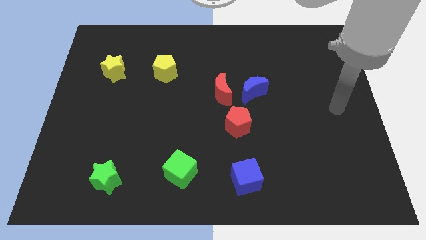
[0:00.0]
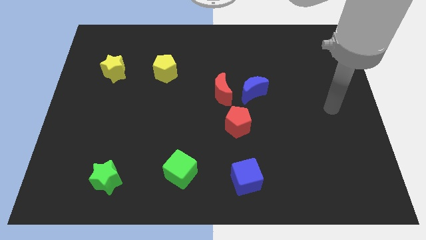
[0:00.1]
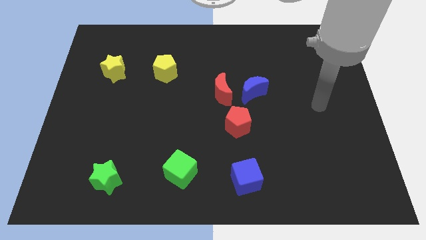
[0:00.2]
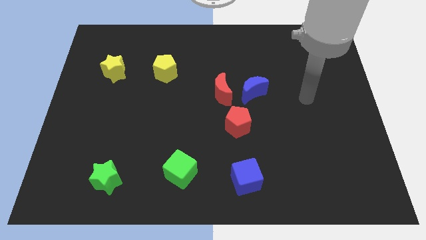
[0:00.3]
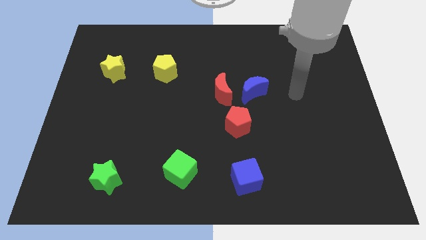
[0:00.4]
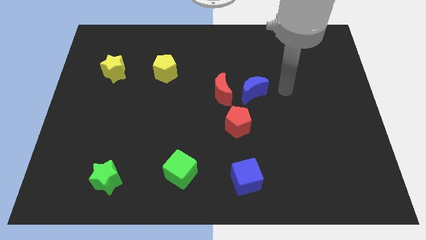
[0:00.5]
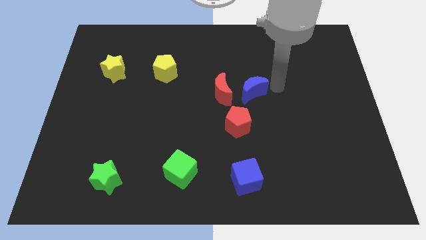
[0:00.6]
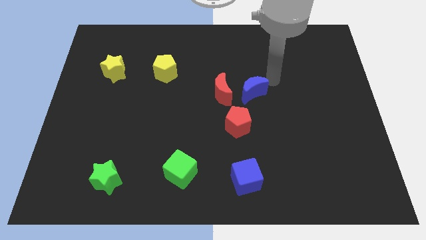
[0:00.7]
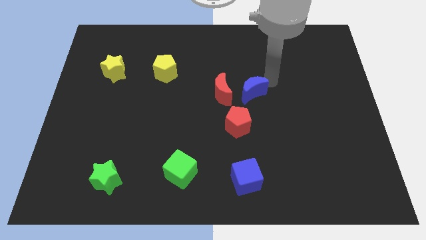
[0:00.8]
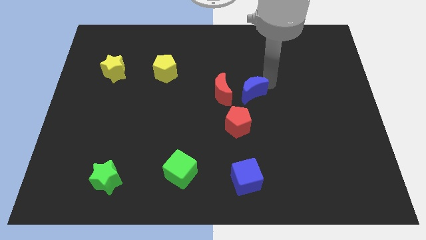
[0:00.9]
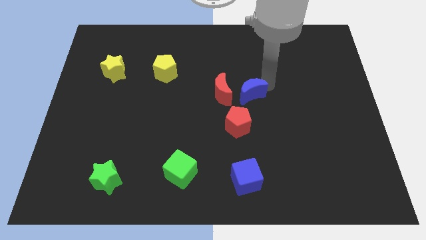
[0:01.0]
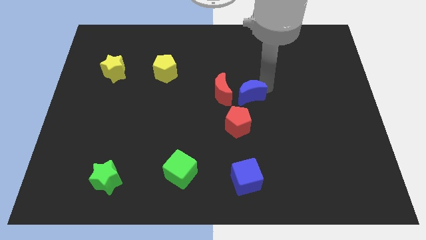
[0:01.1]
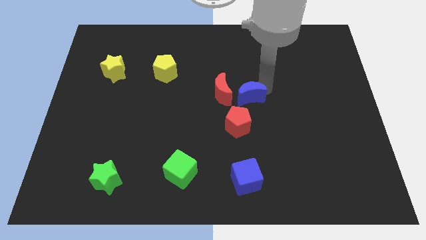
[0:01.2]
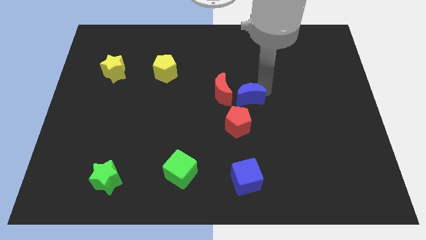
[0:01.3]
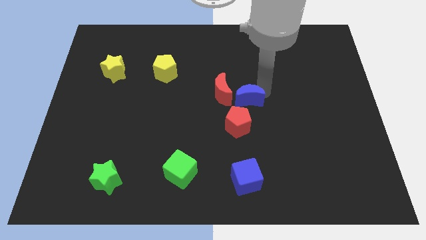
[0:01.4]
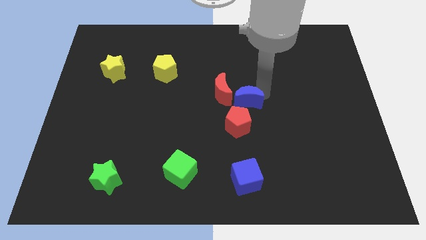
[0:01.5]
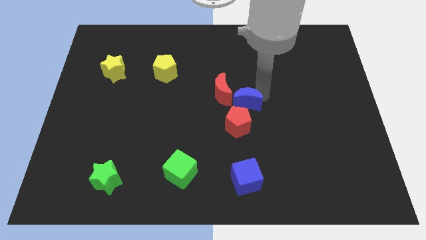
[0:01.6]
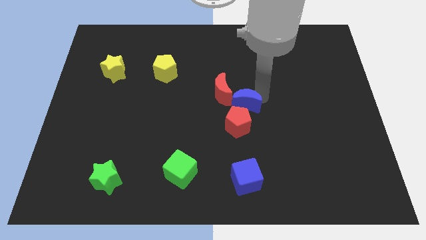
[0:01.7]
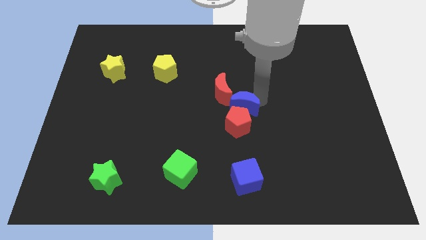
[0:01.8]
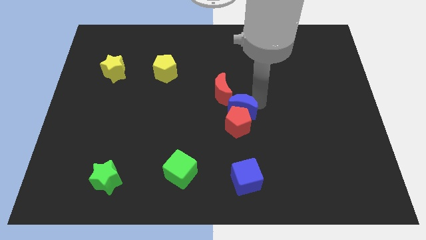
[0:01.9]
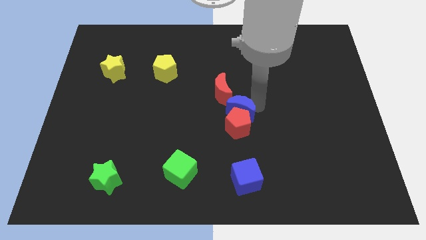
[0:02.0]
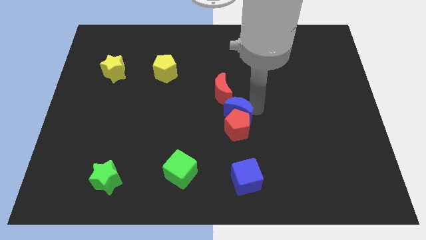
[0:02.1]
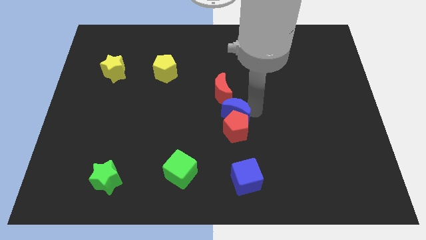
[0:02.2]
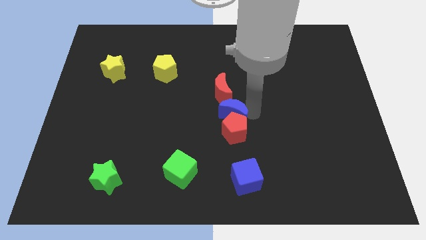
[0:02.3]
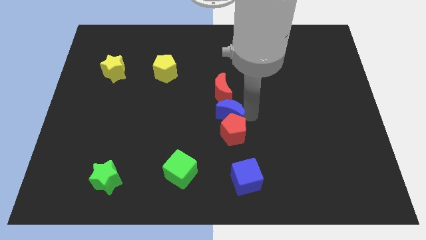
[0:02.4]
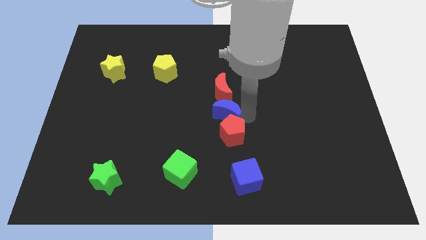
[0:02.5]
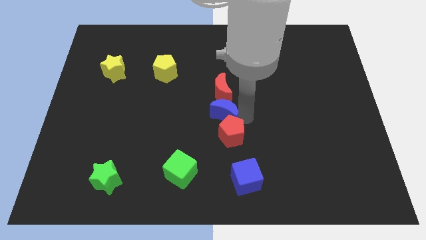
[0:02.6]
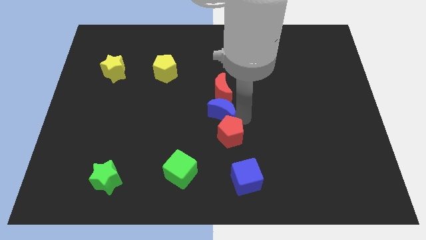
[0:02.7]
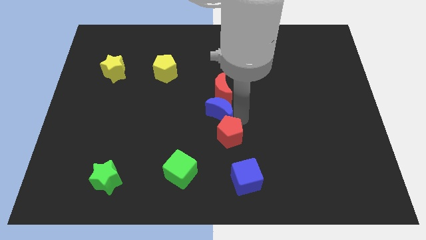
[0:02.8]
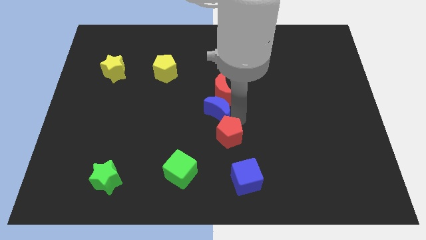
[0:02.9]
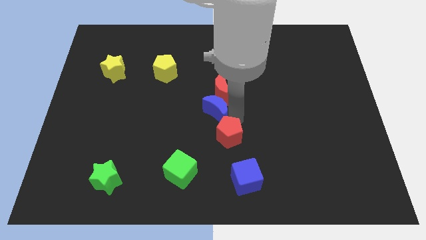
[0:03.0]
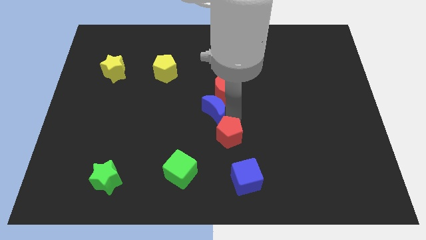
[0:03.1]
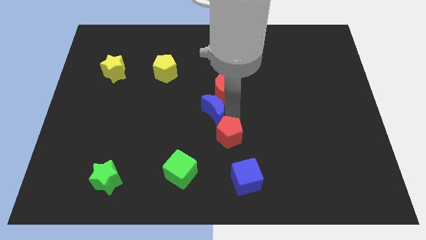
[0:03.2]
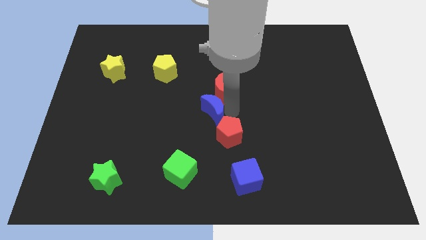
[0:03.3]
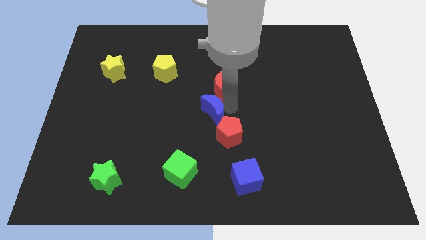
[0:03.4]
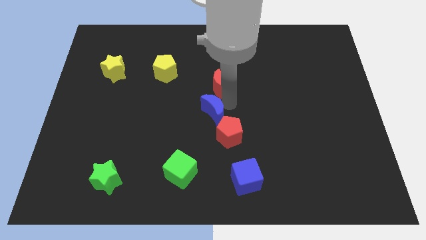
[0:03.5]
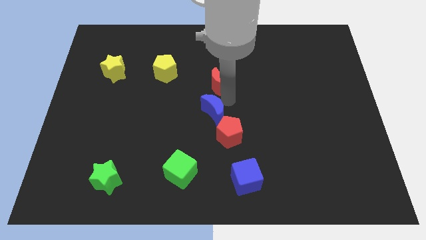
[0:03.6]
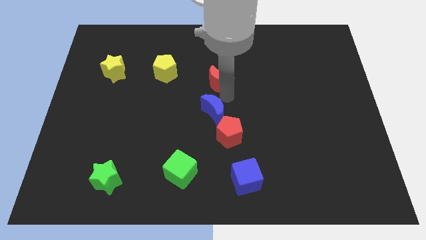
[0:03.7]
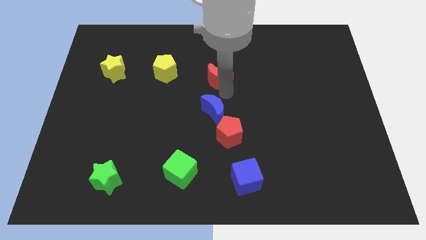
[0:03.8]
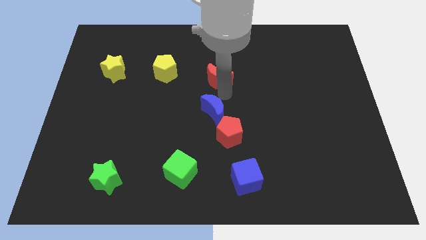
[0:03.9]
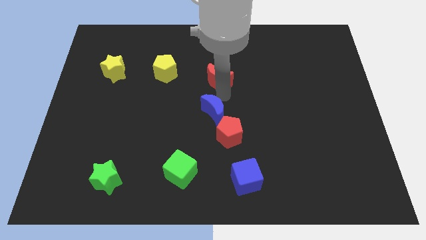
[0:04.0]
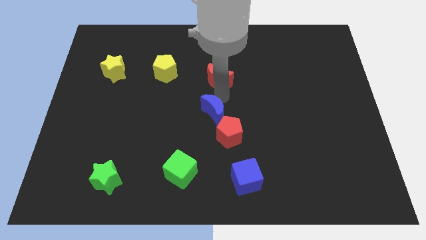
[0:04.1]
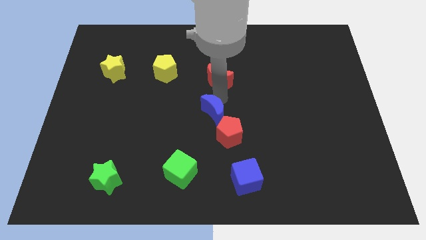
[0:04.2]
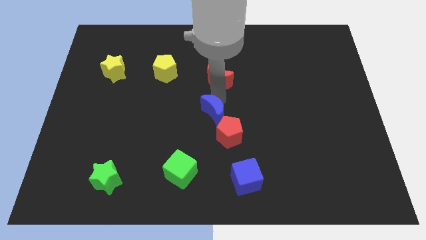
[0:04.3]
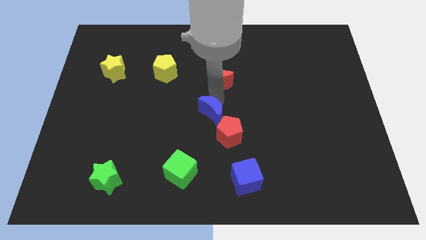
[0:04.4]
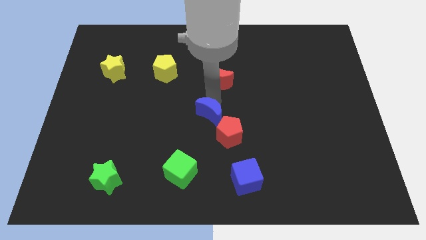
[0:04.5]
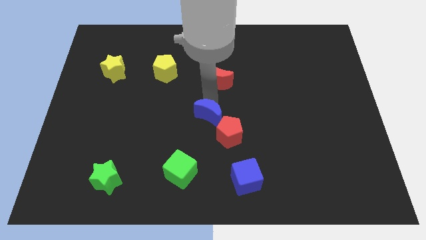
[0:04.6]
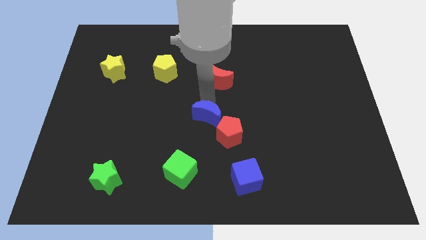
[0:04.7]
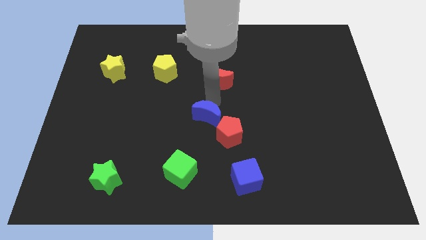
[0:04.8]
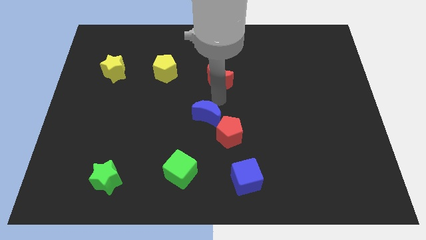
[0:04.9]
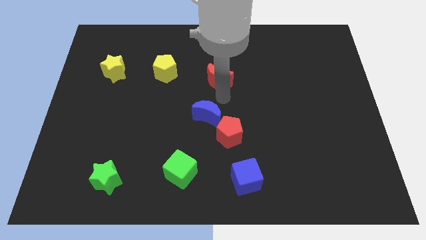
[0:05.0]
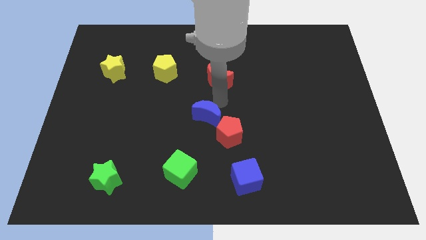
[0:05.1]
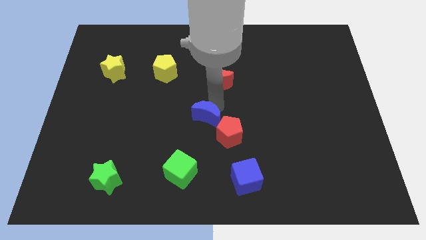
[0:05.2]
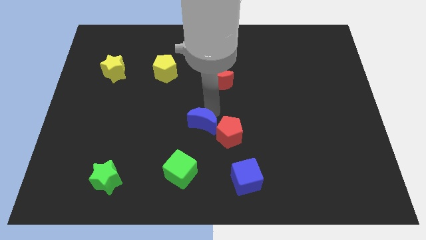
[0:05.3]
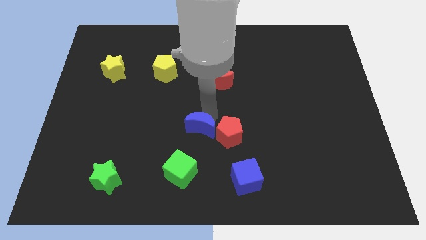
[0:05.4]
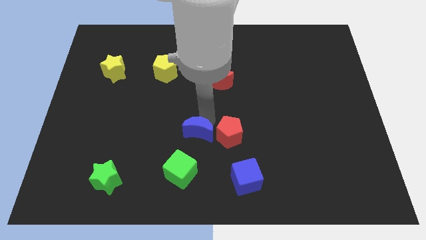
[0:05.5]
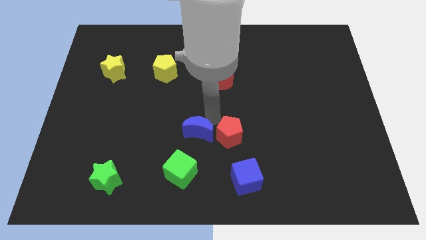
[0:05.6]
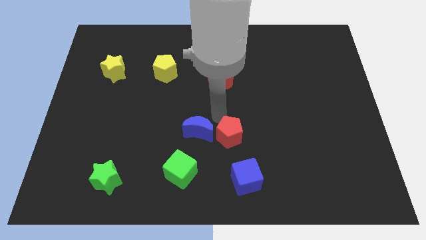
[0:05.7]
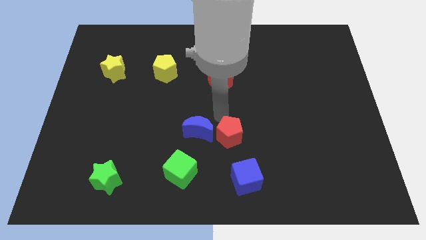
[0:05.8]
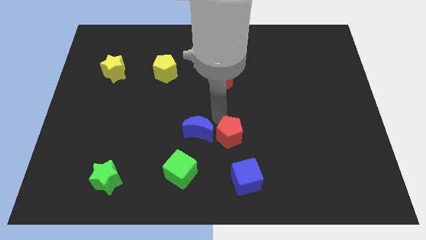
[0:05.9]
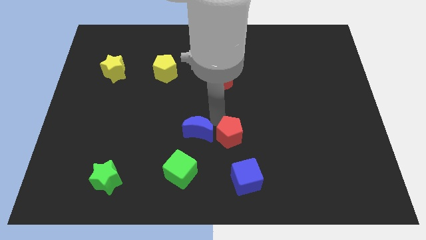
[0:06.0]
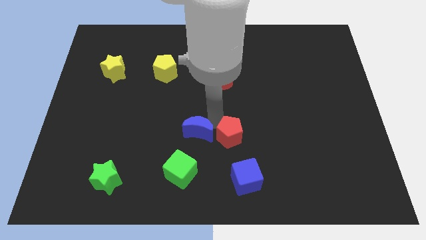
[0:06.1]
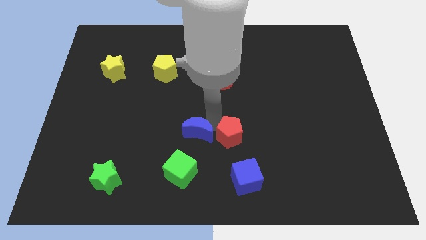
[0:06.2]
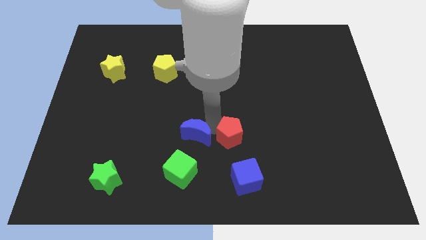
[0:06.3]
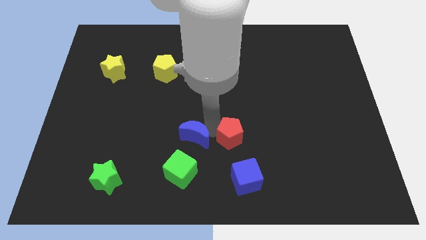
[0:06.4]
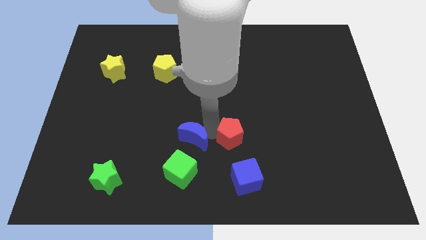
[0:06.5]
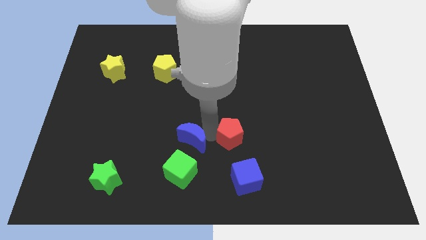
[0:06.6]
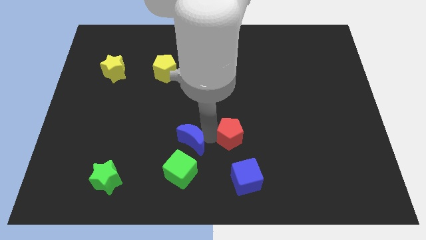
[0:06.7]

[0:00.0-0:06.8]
slide the blue moon down and left diagonally

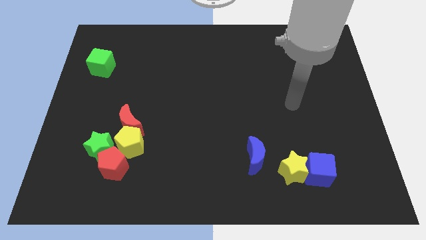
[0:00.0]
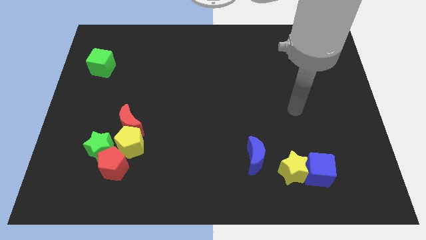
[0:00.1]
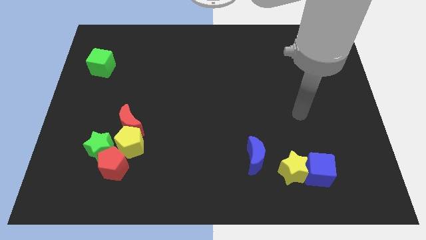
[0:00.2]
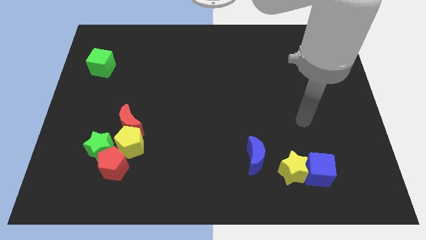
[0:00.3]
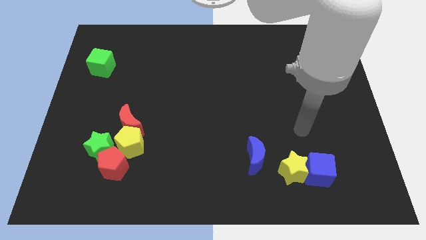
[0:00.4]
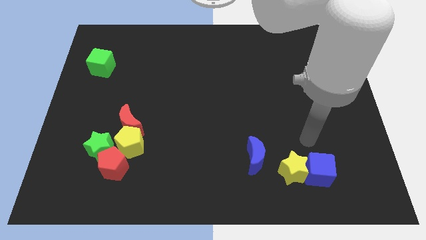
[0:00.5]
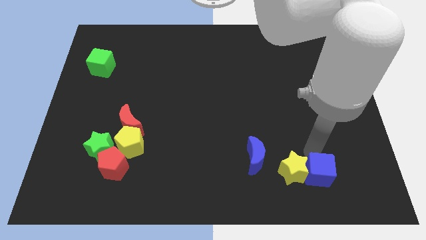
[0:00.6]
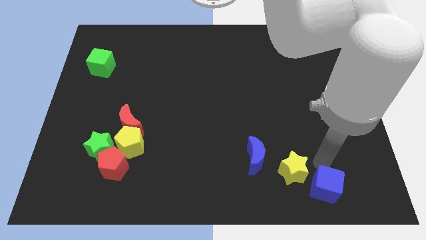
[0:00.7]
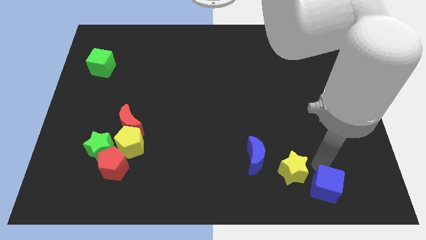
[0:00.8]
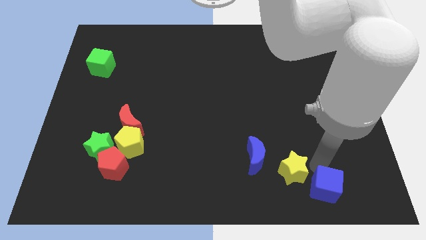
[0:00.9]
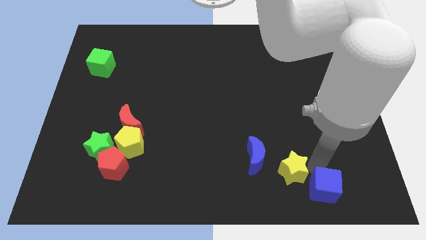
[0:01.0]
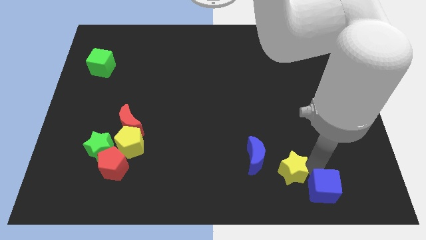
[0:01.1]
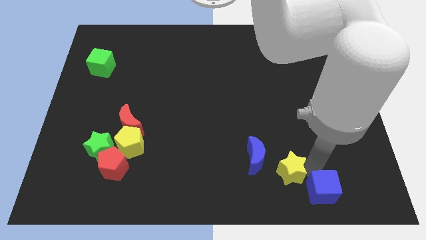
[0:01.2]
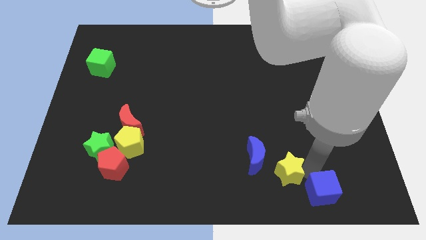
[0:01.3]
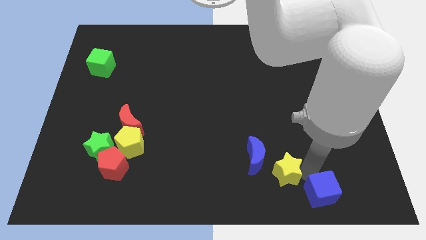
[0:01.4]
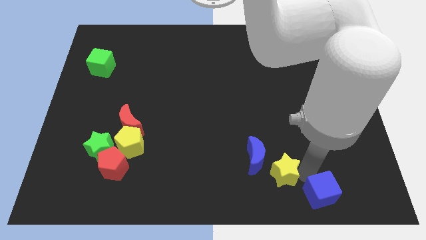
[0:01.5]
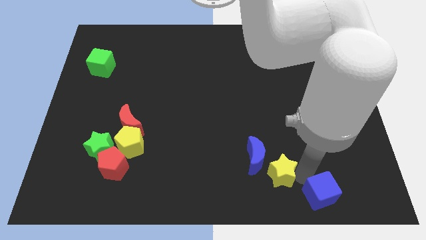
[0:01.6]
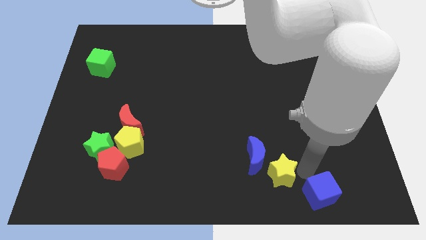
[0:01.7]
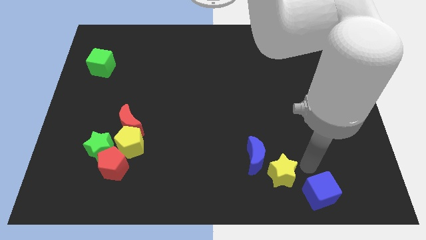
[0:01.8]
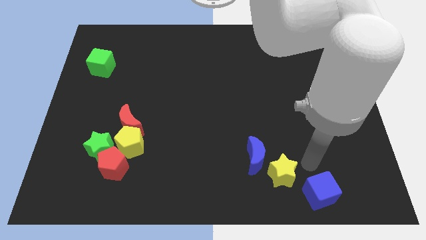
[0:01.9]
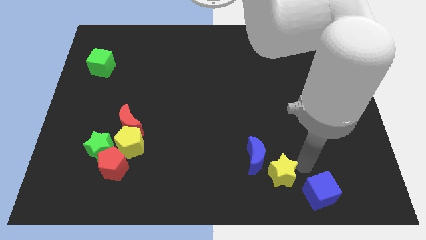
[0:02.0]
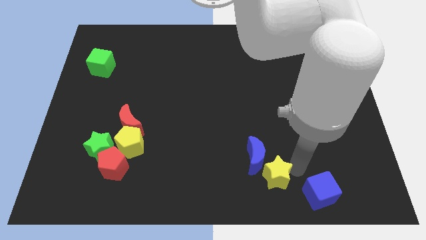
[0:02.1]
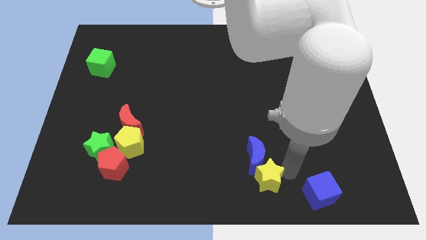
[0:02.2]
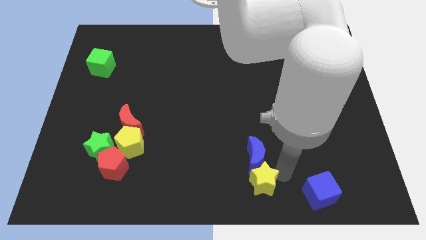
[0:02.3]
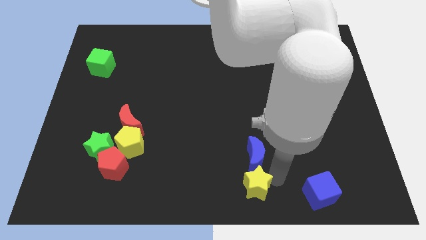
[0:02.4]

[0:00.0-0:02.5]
slightly move the yellow star to the left
